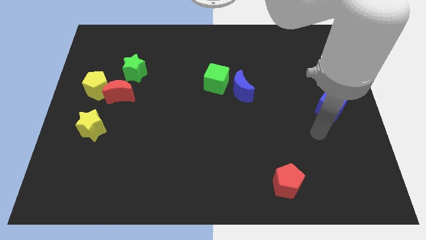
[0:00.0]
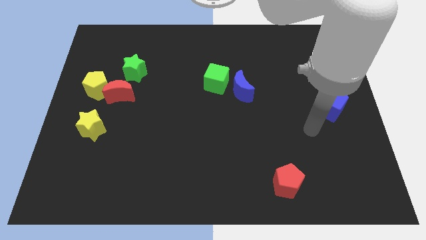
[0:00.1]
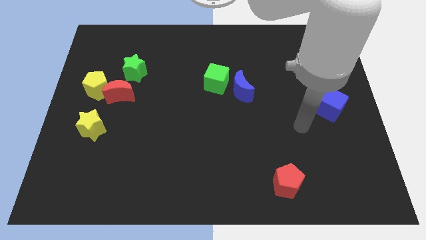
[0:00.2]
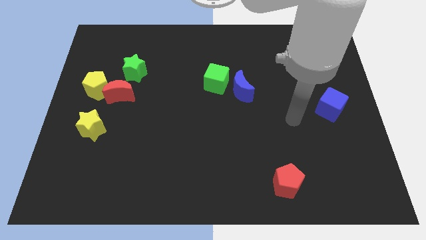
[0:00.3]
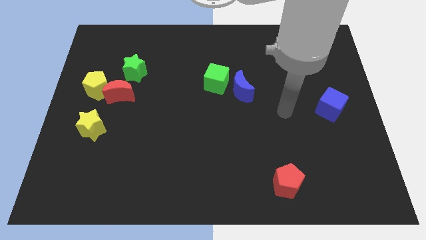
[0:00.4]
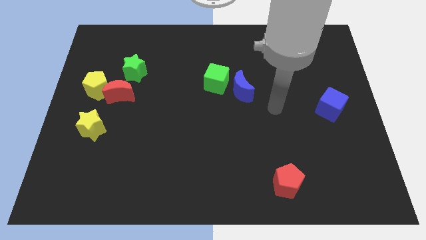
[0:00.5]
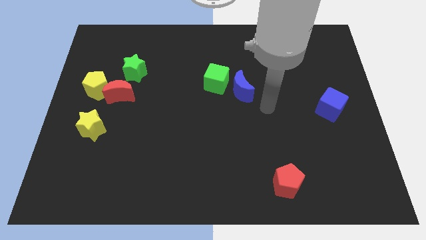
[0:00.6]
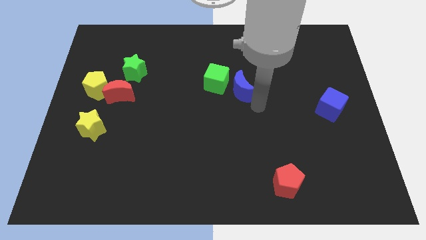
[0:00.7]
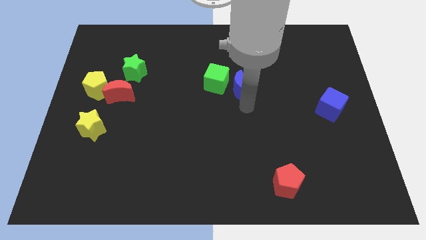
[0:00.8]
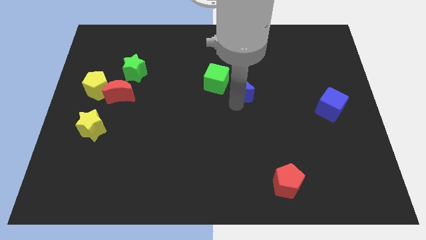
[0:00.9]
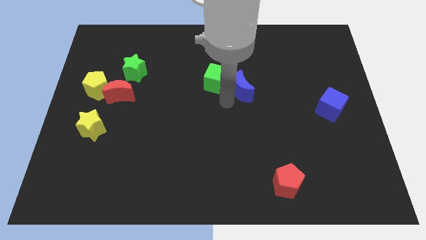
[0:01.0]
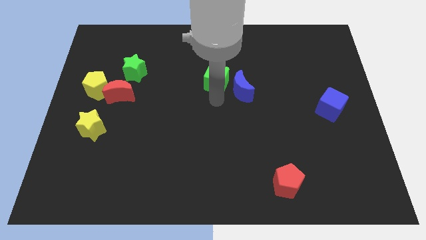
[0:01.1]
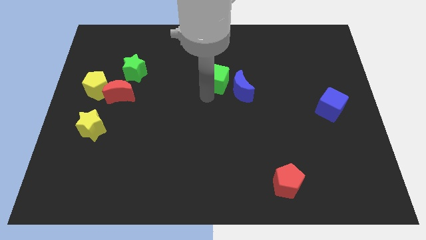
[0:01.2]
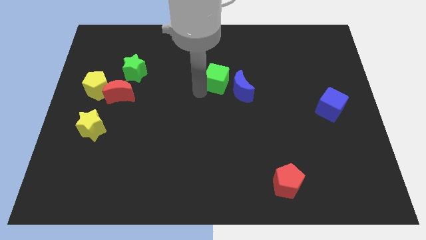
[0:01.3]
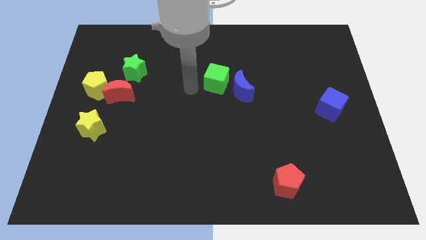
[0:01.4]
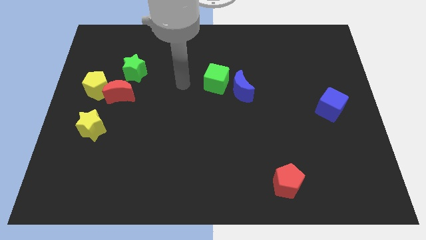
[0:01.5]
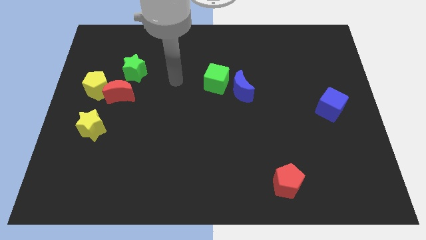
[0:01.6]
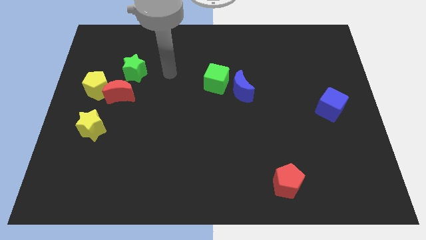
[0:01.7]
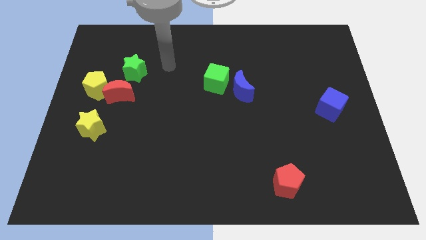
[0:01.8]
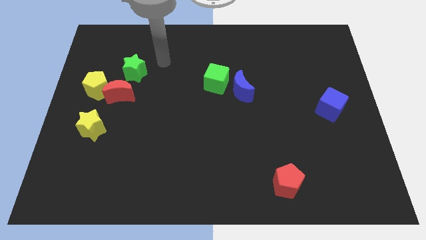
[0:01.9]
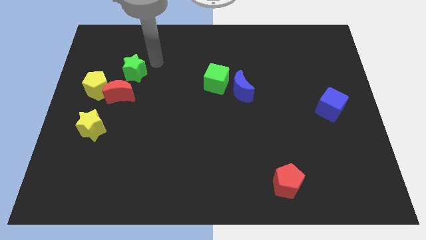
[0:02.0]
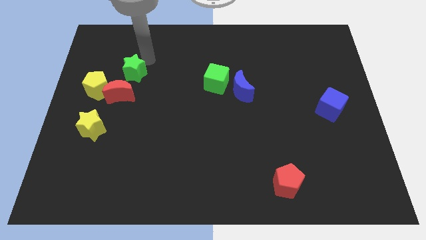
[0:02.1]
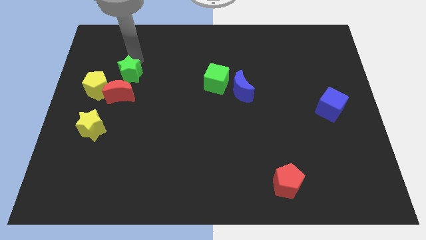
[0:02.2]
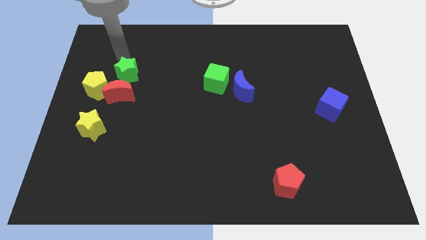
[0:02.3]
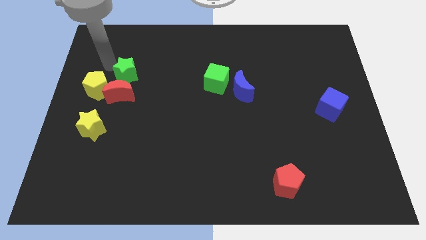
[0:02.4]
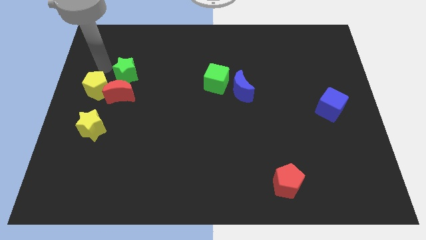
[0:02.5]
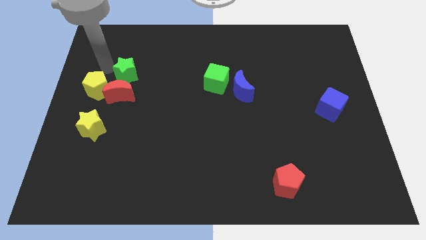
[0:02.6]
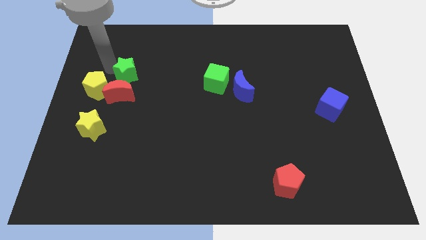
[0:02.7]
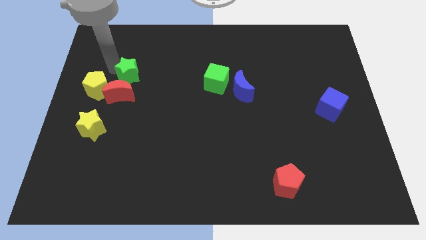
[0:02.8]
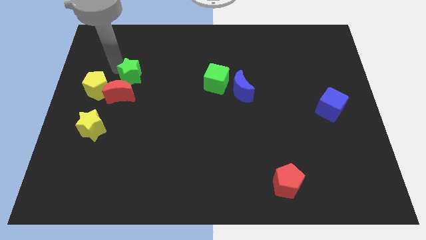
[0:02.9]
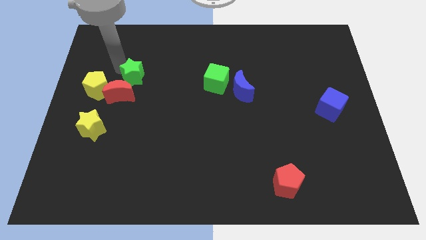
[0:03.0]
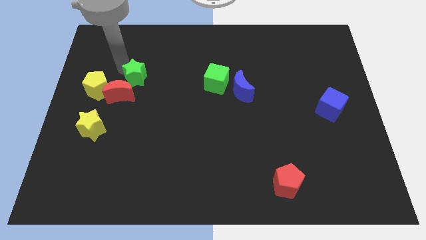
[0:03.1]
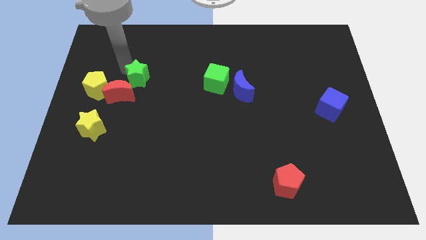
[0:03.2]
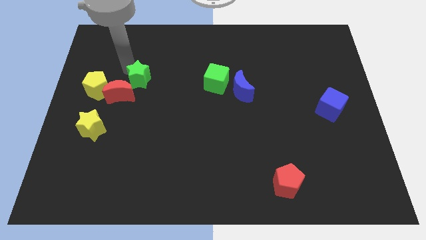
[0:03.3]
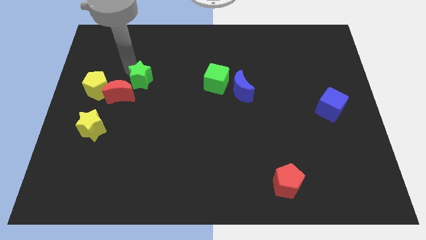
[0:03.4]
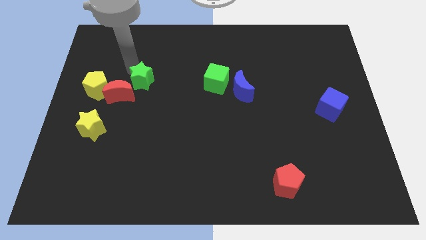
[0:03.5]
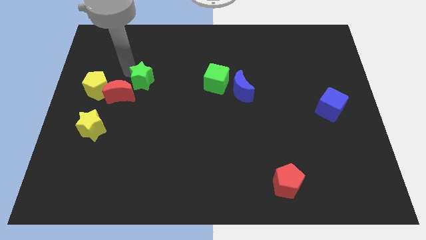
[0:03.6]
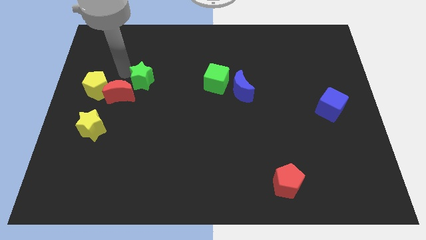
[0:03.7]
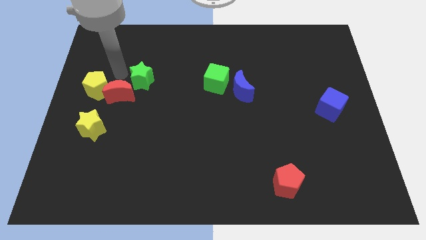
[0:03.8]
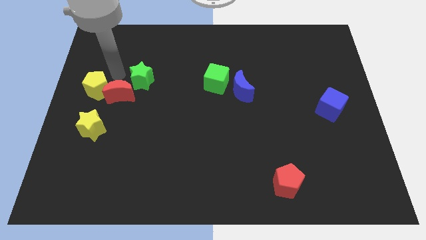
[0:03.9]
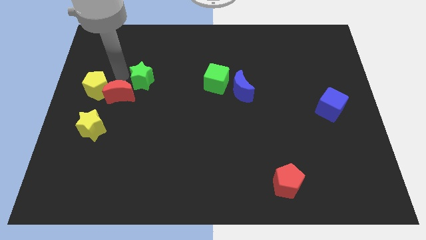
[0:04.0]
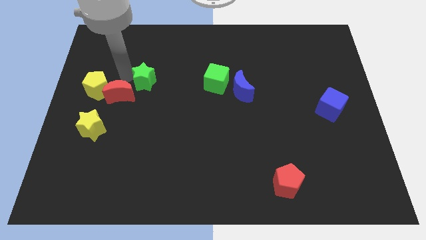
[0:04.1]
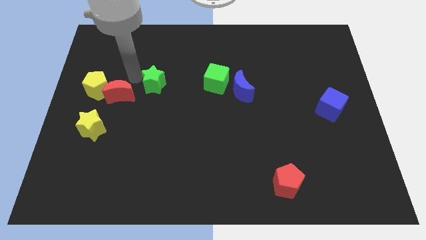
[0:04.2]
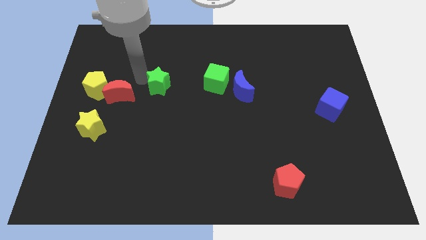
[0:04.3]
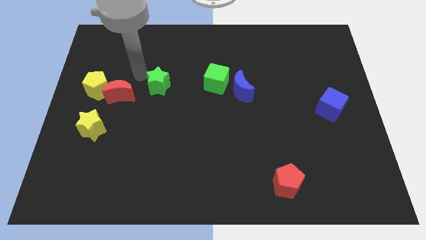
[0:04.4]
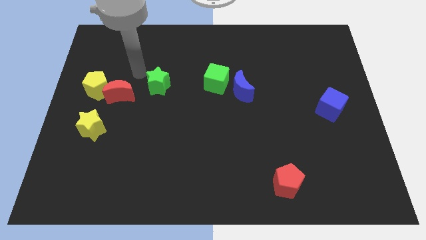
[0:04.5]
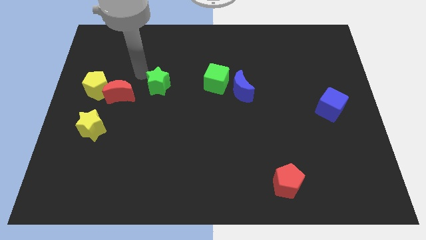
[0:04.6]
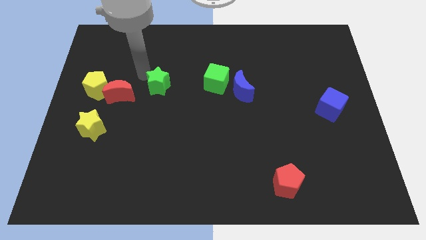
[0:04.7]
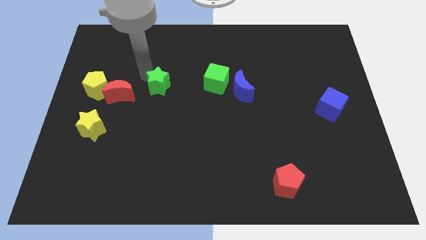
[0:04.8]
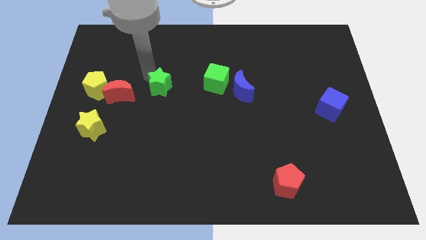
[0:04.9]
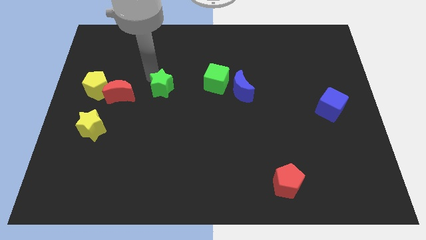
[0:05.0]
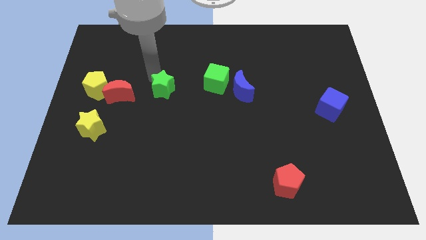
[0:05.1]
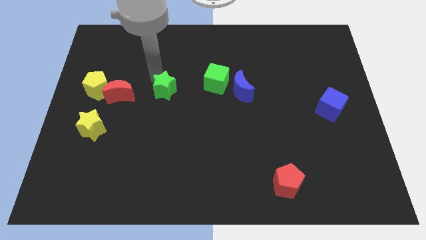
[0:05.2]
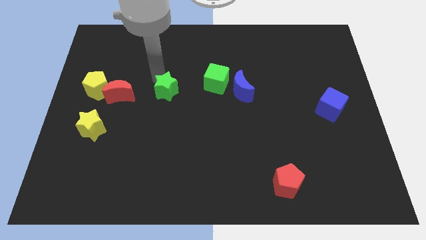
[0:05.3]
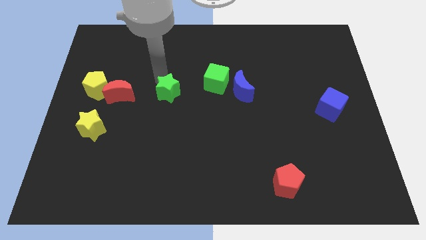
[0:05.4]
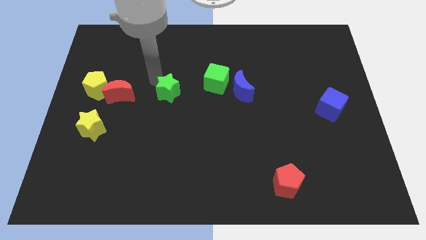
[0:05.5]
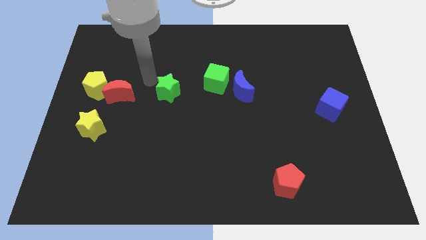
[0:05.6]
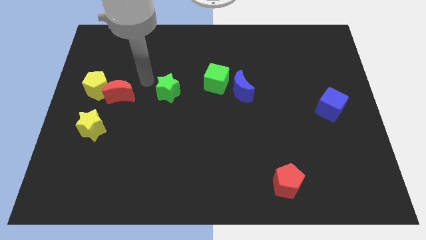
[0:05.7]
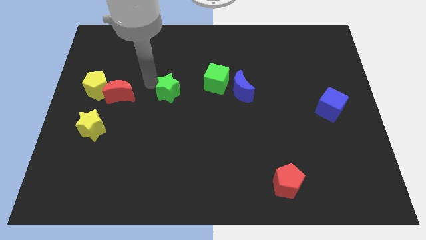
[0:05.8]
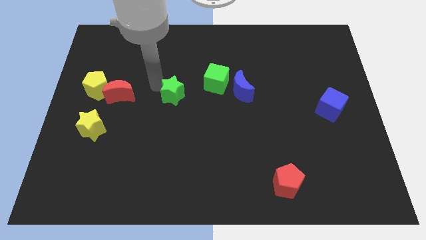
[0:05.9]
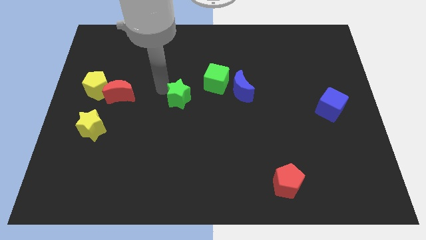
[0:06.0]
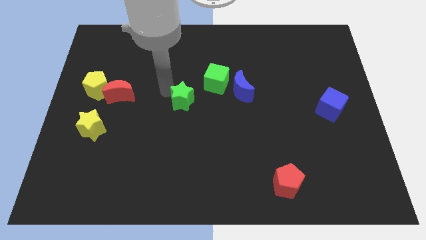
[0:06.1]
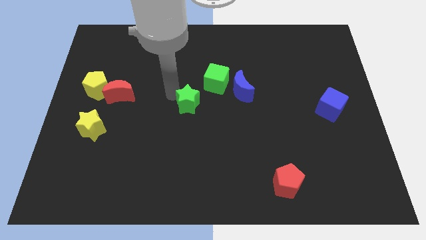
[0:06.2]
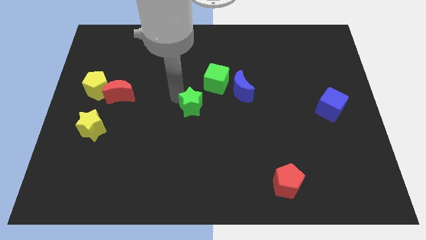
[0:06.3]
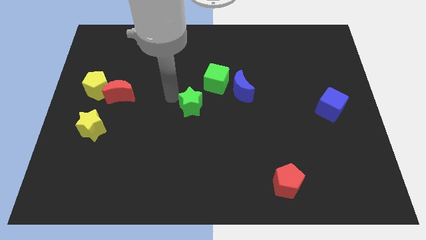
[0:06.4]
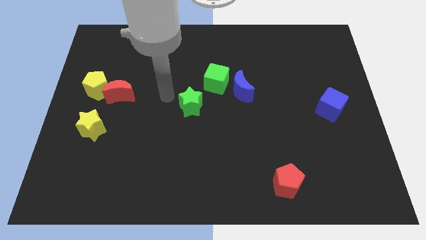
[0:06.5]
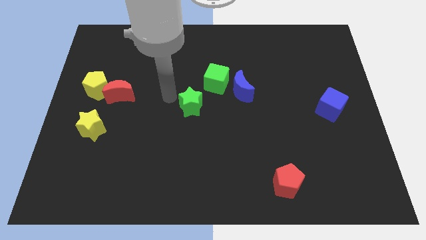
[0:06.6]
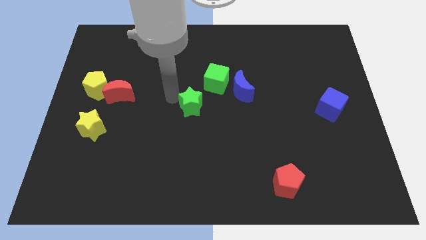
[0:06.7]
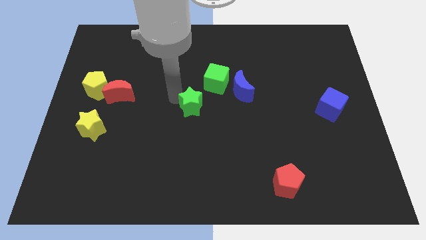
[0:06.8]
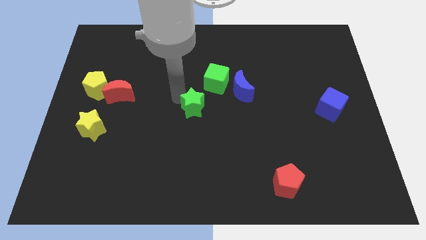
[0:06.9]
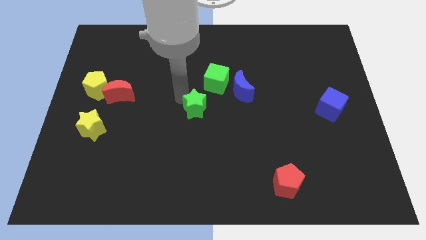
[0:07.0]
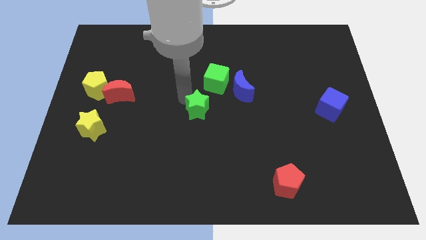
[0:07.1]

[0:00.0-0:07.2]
put the green star to the bottom of the green cube

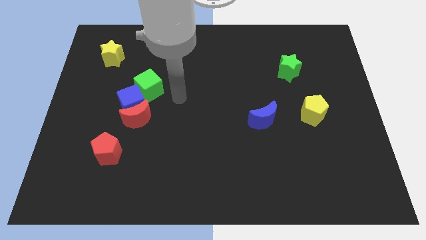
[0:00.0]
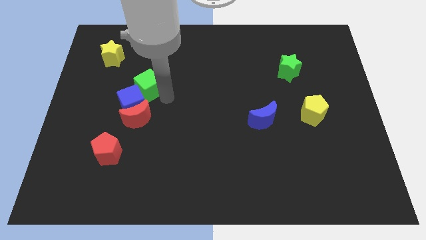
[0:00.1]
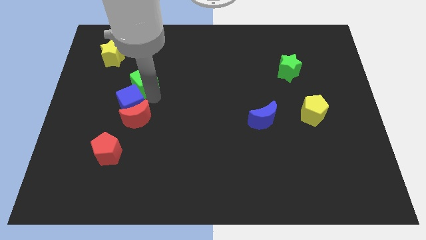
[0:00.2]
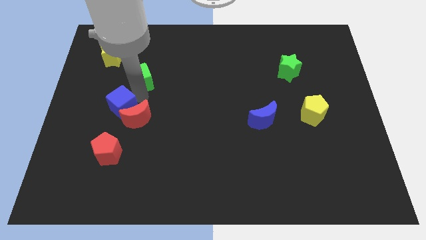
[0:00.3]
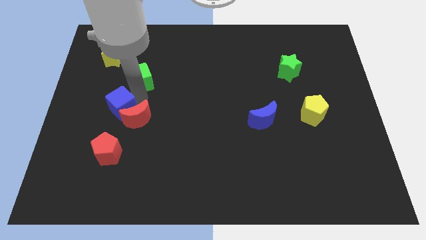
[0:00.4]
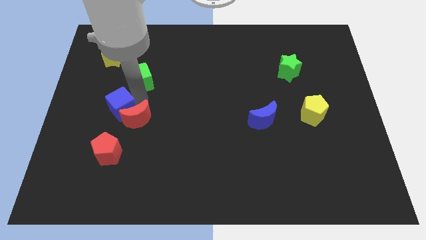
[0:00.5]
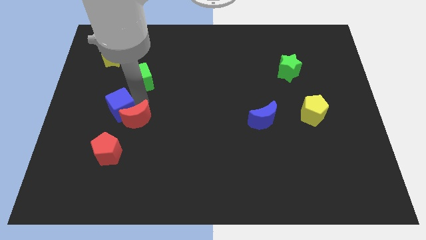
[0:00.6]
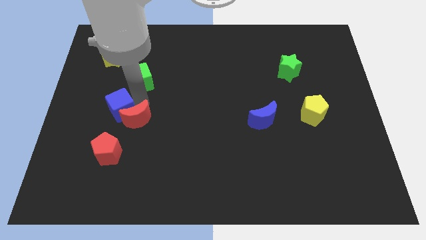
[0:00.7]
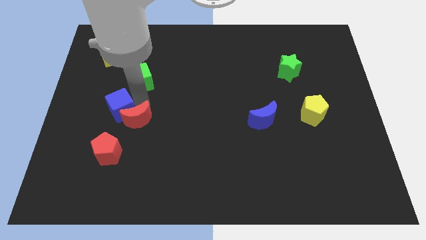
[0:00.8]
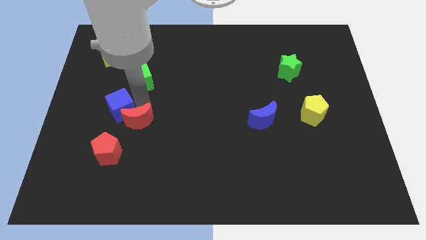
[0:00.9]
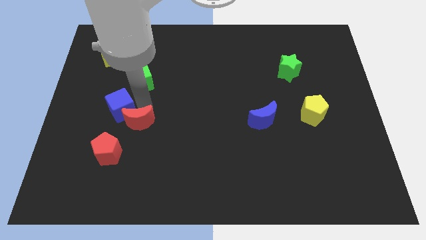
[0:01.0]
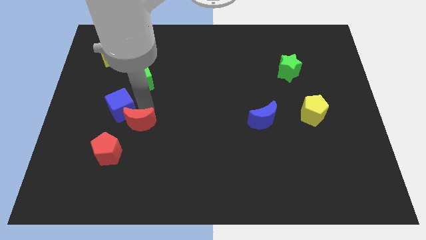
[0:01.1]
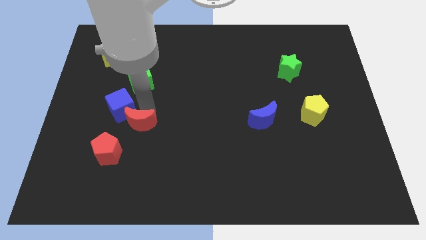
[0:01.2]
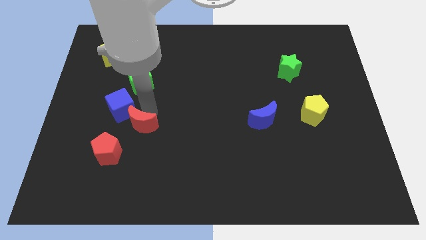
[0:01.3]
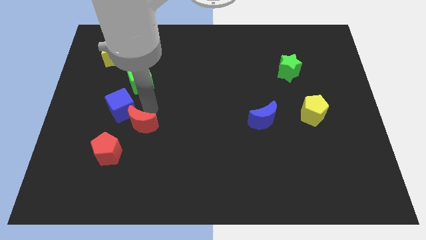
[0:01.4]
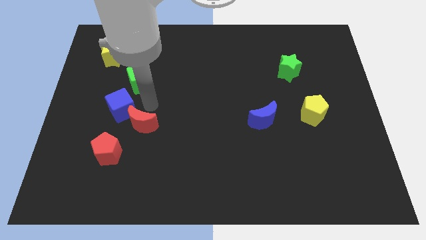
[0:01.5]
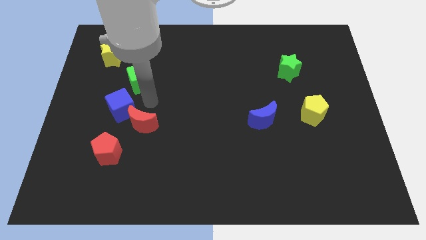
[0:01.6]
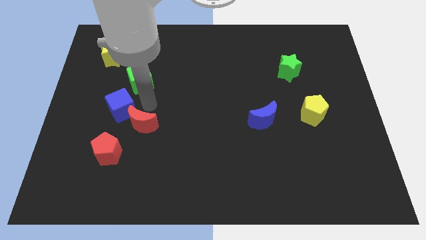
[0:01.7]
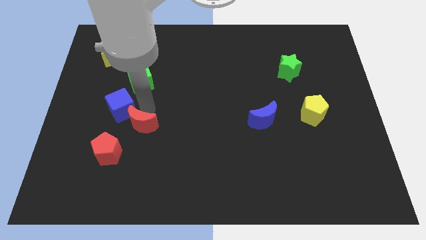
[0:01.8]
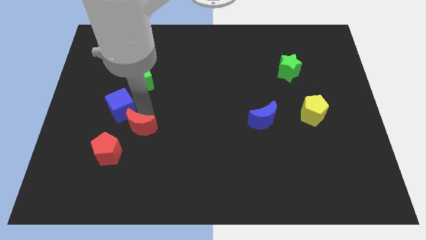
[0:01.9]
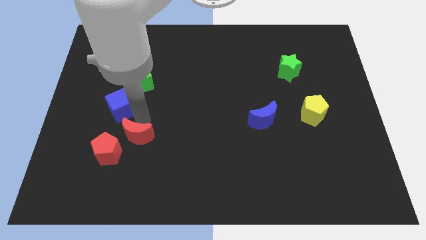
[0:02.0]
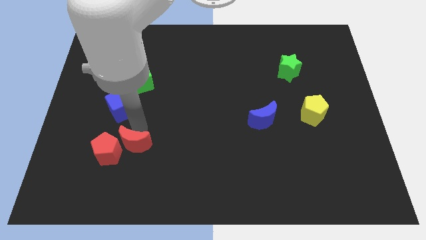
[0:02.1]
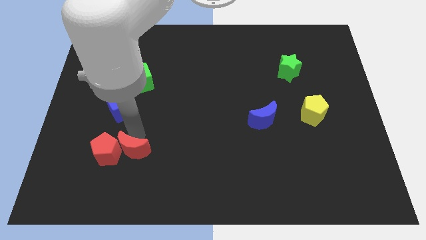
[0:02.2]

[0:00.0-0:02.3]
put the red moon to the bottom right side of the red pentagon
